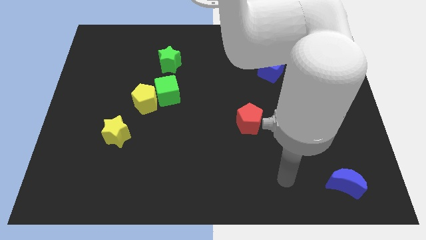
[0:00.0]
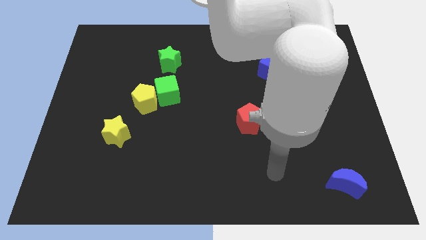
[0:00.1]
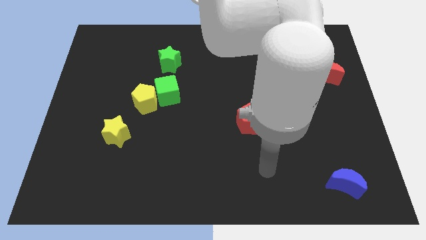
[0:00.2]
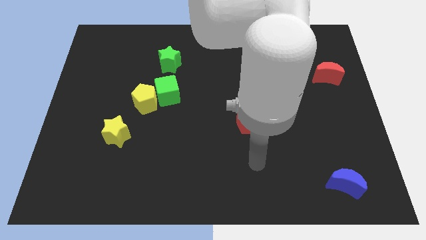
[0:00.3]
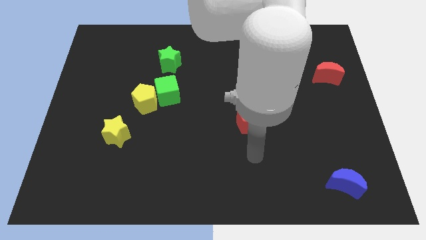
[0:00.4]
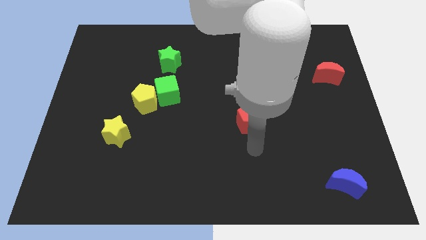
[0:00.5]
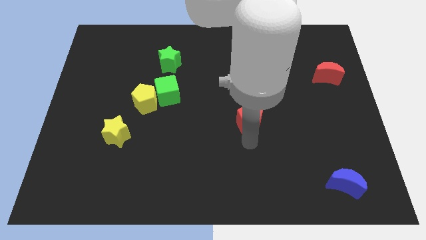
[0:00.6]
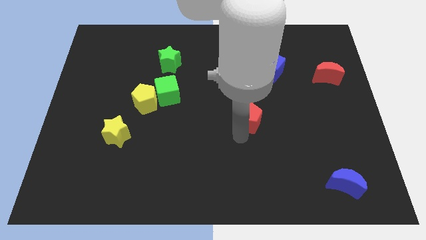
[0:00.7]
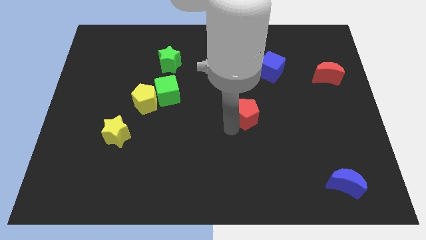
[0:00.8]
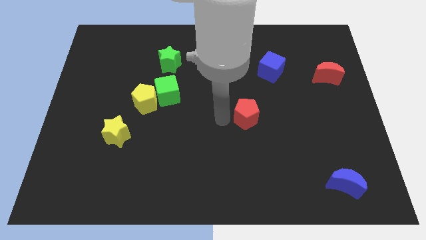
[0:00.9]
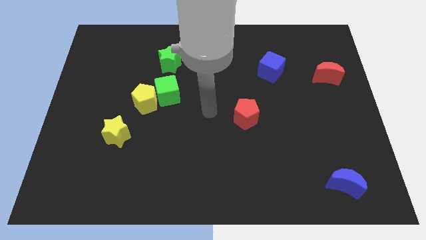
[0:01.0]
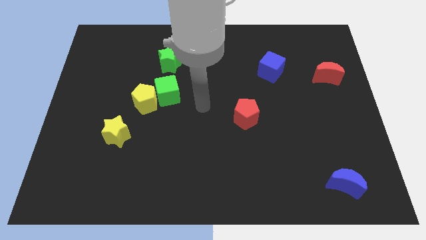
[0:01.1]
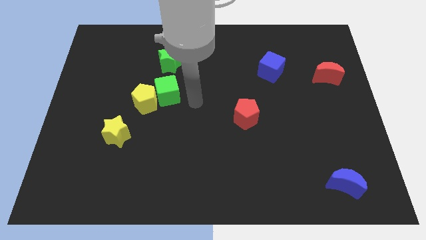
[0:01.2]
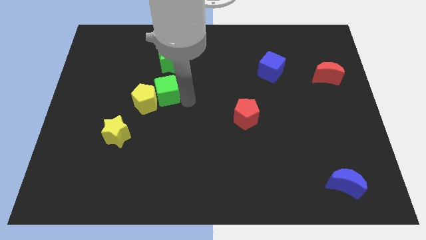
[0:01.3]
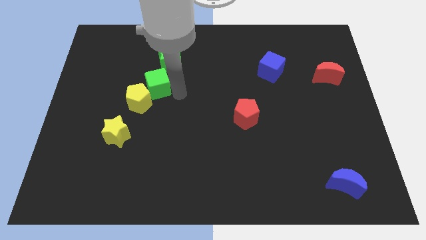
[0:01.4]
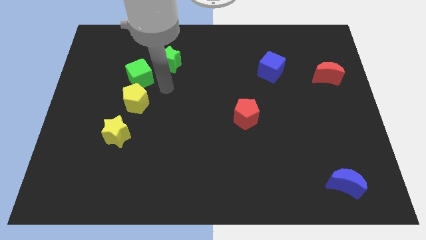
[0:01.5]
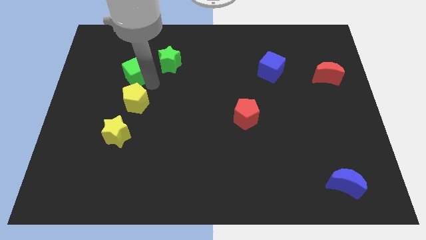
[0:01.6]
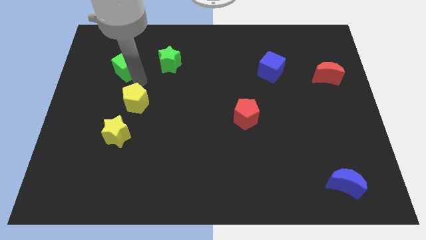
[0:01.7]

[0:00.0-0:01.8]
separate the yellow pentagon from the green cube

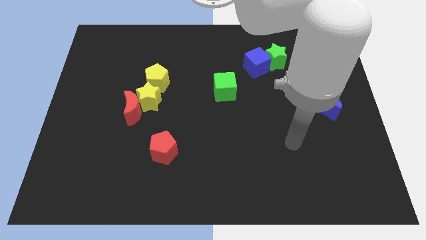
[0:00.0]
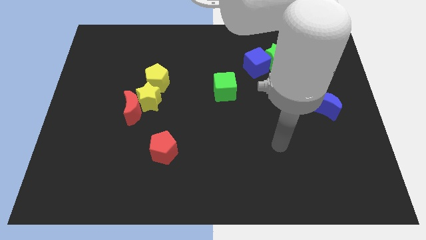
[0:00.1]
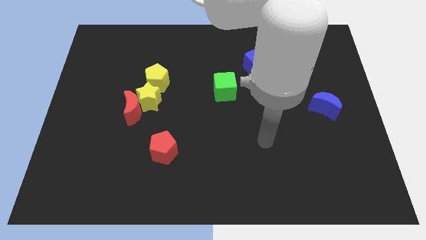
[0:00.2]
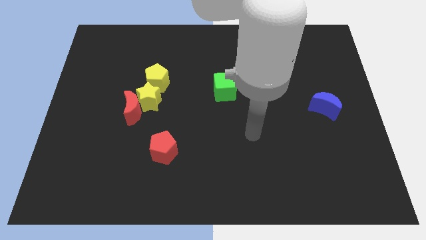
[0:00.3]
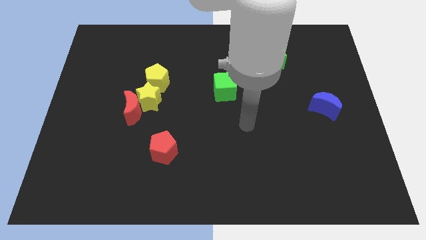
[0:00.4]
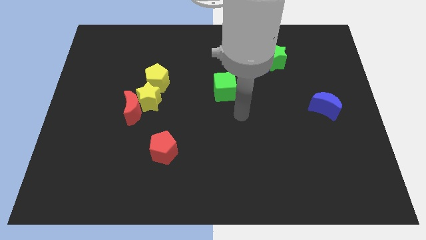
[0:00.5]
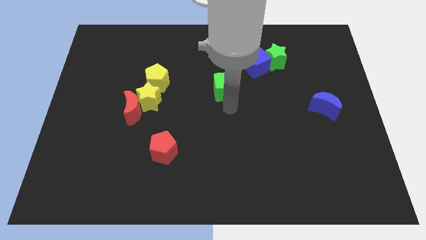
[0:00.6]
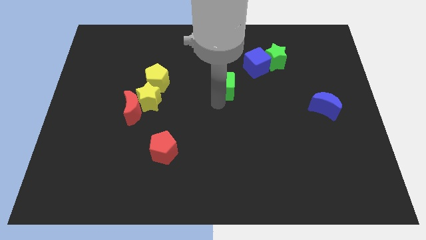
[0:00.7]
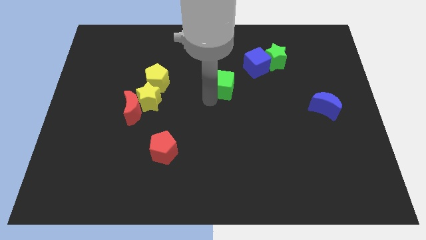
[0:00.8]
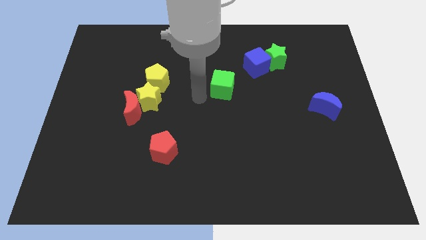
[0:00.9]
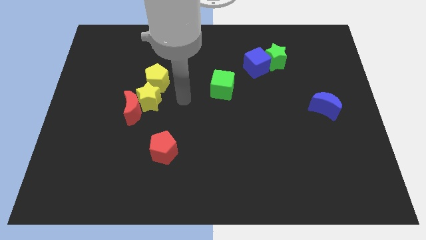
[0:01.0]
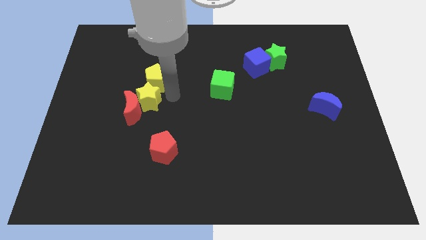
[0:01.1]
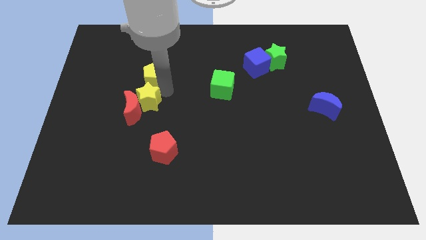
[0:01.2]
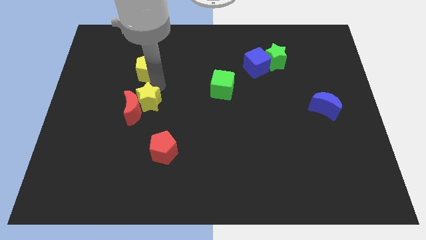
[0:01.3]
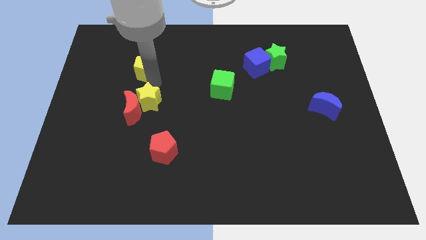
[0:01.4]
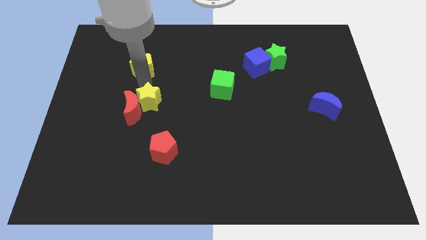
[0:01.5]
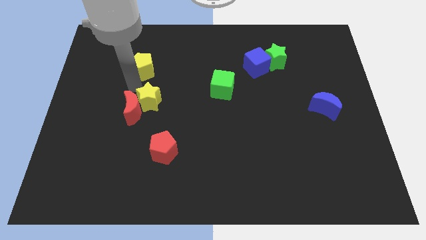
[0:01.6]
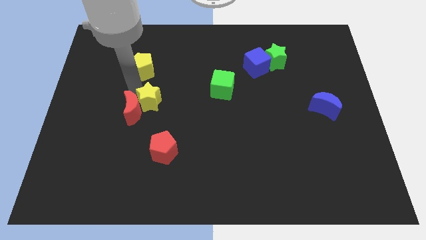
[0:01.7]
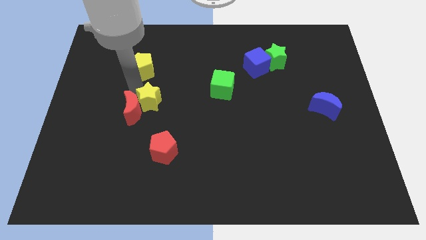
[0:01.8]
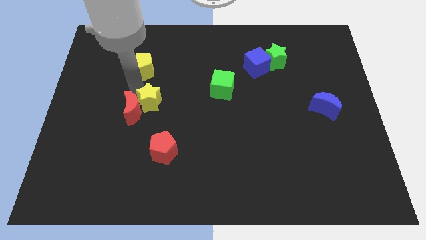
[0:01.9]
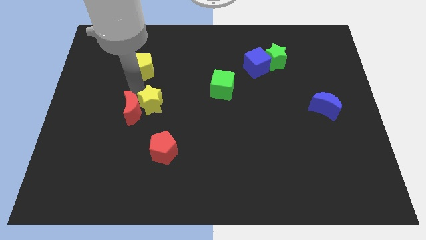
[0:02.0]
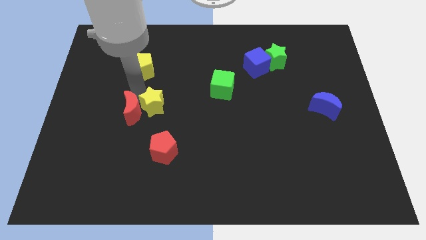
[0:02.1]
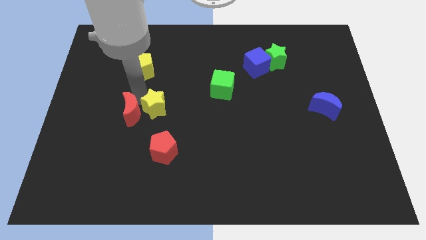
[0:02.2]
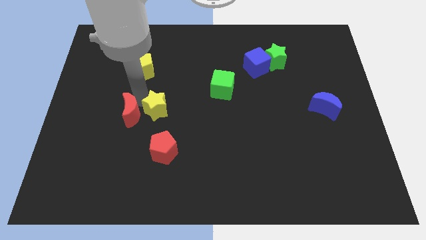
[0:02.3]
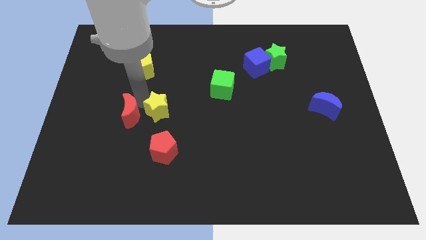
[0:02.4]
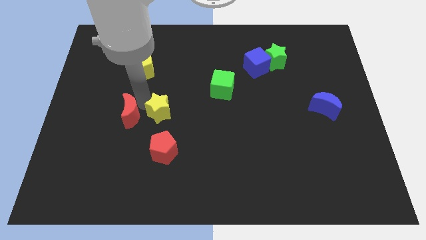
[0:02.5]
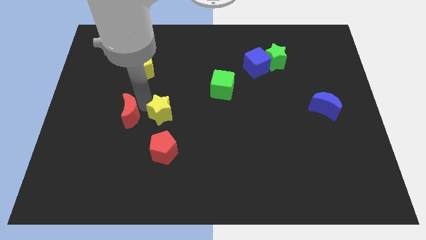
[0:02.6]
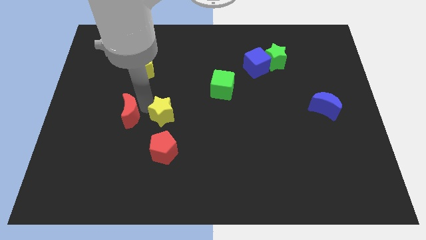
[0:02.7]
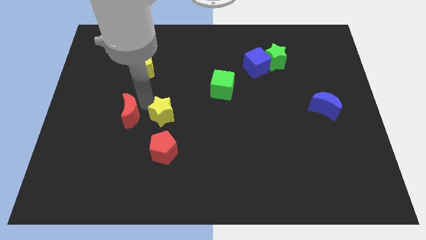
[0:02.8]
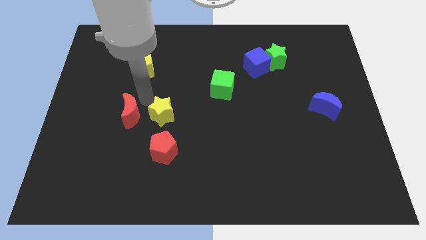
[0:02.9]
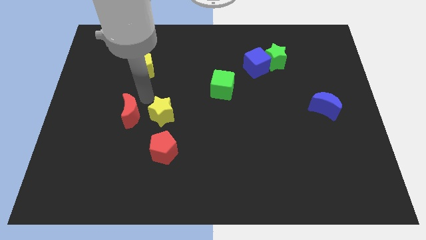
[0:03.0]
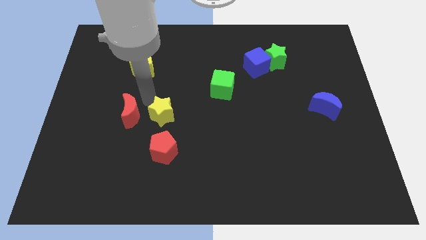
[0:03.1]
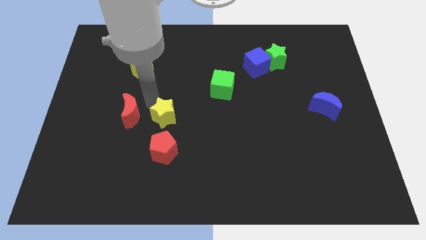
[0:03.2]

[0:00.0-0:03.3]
separate the yellow star from the red moon and yellow pentagon

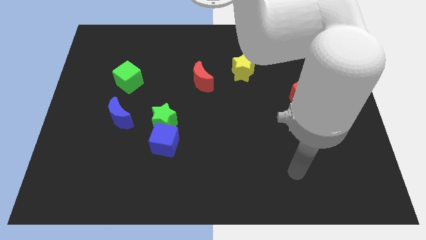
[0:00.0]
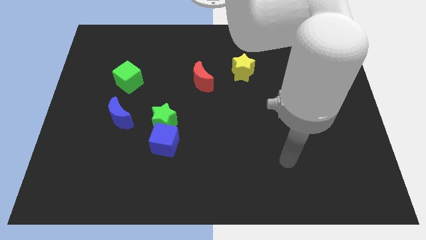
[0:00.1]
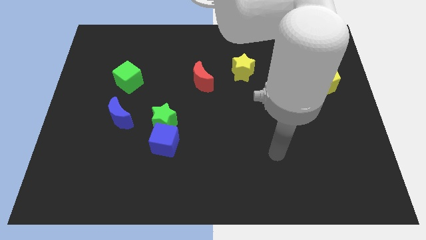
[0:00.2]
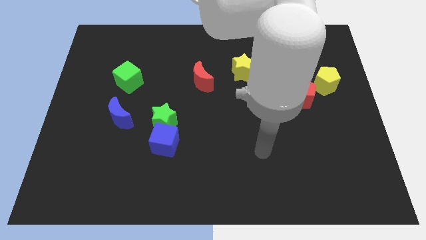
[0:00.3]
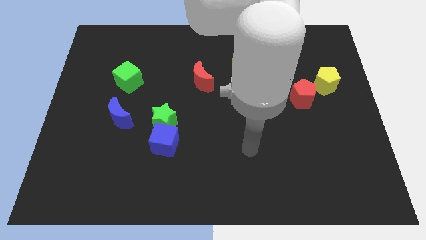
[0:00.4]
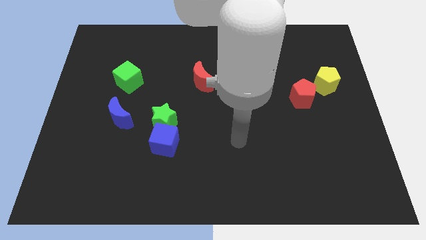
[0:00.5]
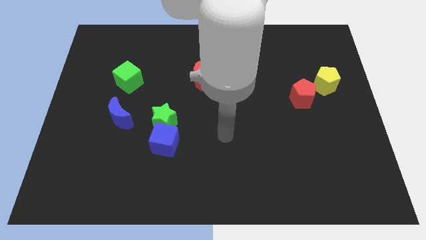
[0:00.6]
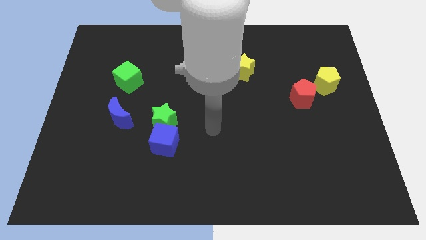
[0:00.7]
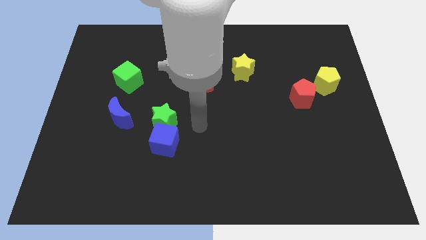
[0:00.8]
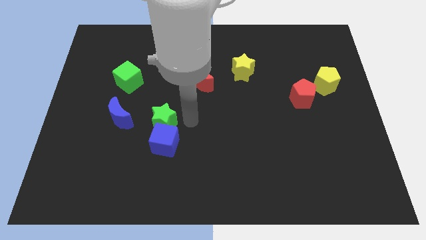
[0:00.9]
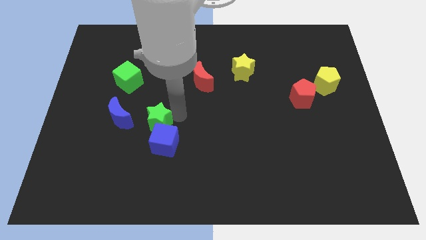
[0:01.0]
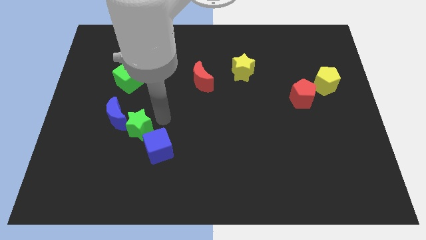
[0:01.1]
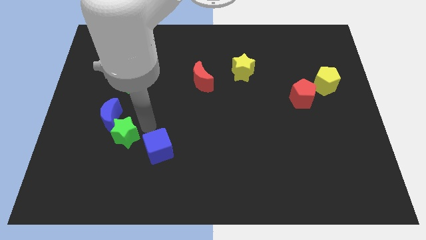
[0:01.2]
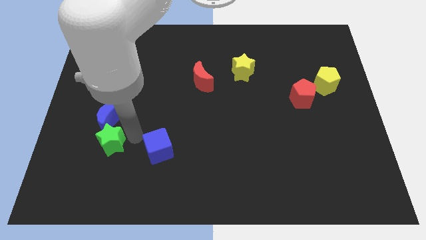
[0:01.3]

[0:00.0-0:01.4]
separate the blue cube from the green star

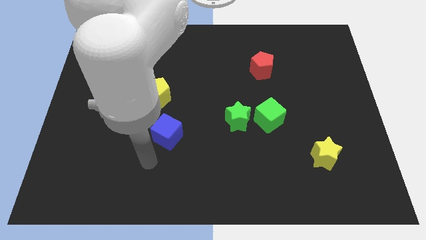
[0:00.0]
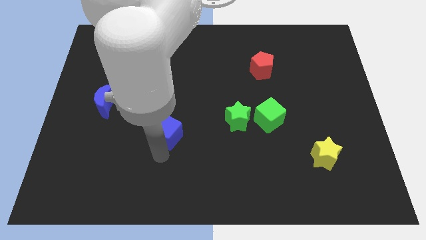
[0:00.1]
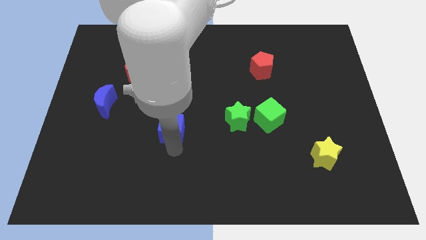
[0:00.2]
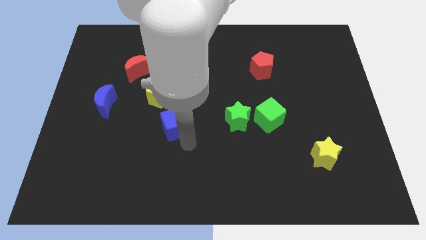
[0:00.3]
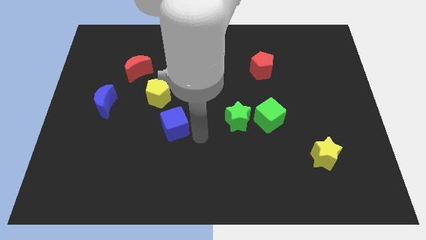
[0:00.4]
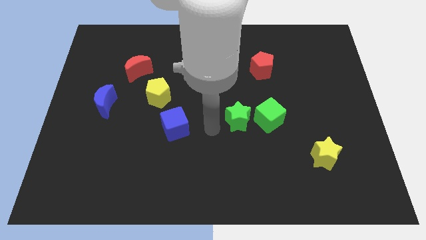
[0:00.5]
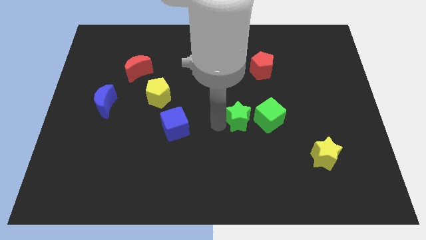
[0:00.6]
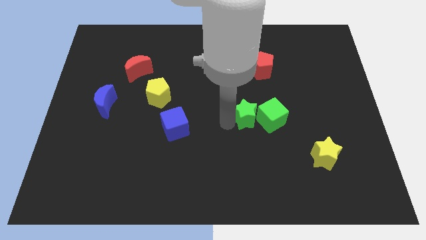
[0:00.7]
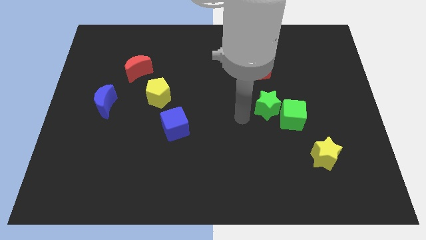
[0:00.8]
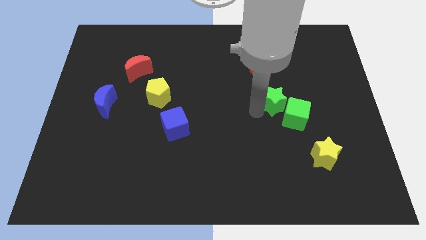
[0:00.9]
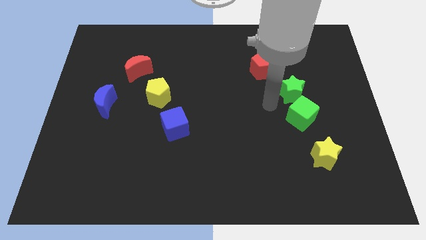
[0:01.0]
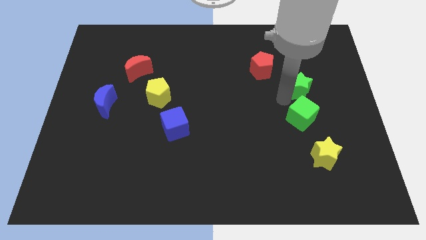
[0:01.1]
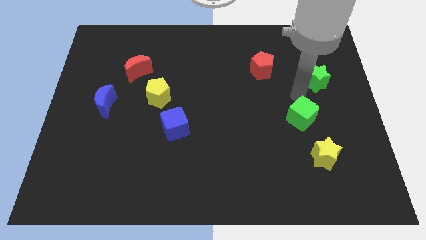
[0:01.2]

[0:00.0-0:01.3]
pull the green cube apart from the green star

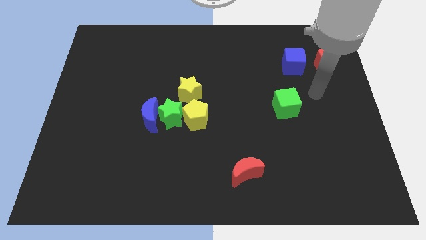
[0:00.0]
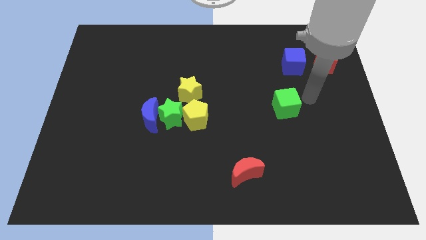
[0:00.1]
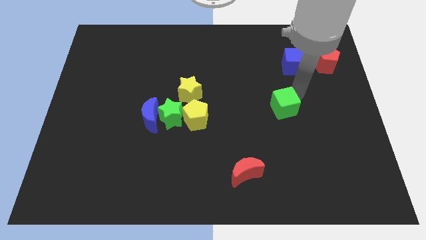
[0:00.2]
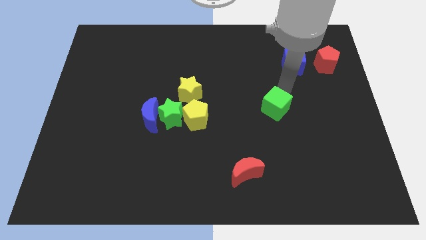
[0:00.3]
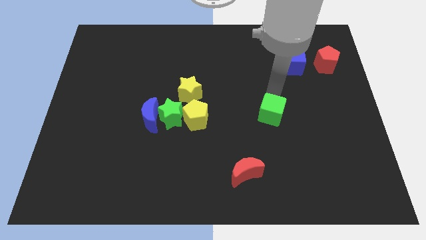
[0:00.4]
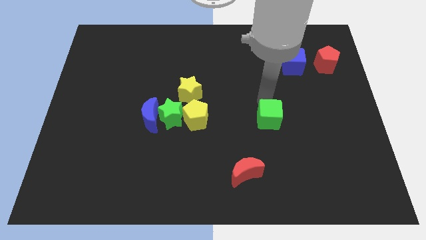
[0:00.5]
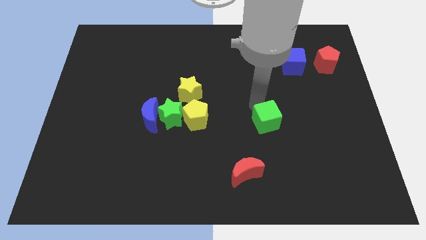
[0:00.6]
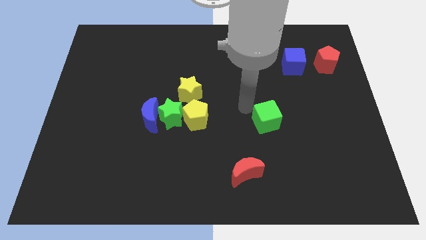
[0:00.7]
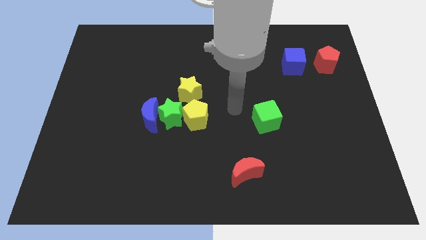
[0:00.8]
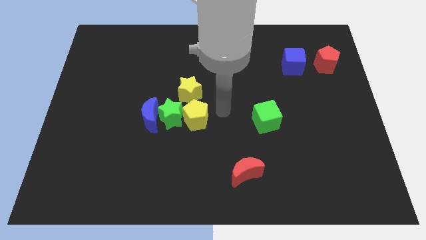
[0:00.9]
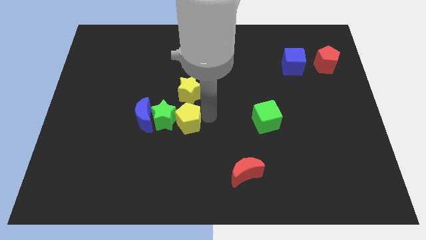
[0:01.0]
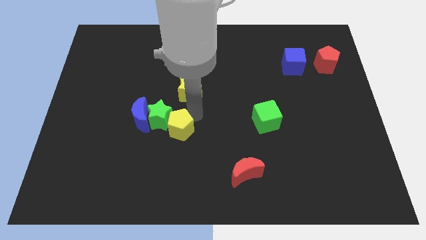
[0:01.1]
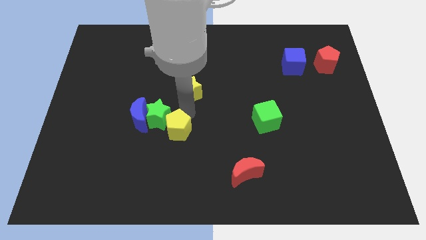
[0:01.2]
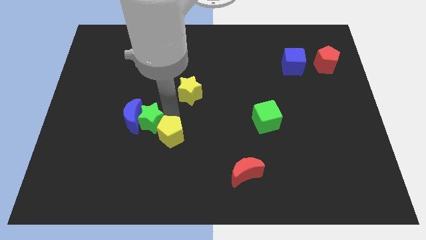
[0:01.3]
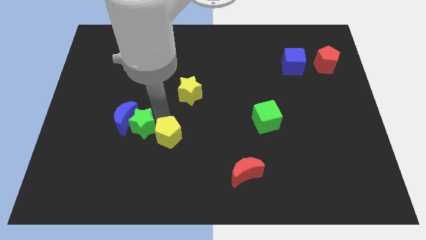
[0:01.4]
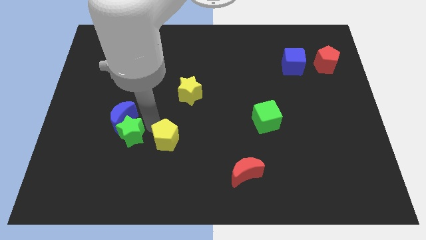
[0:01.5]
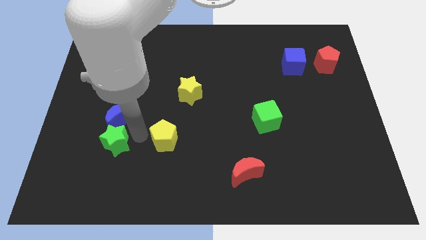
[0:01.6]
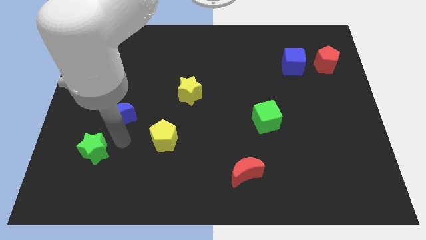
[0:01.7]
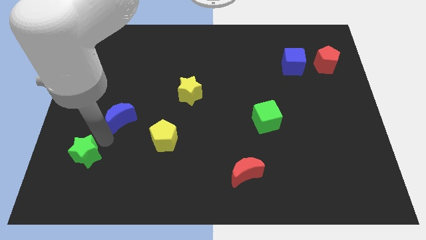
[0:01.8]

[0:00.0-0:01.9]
move the blue moon away from the green star
